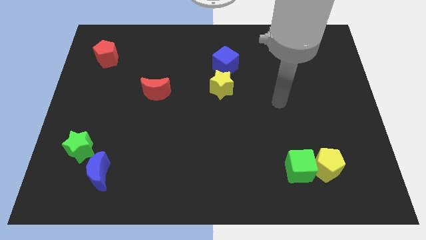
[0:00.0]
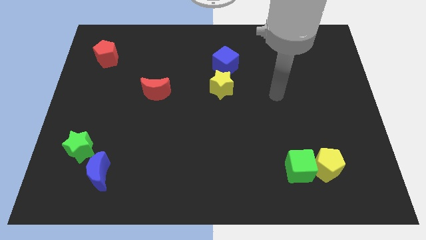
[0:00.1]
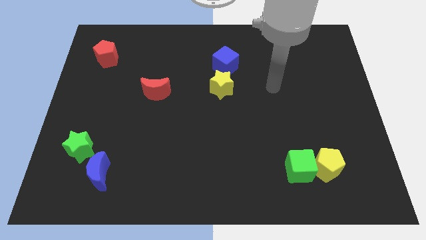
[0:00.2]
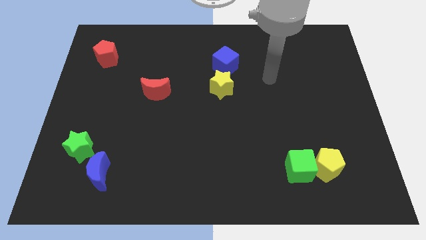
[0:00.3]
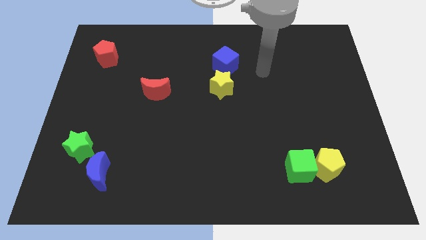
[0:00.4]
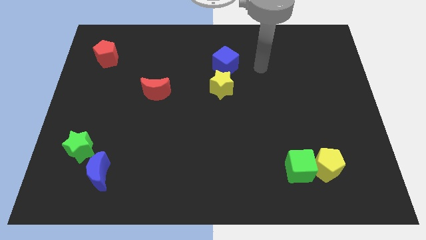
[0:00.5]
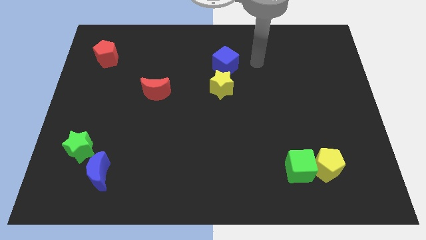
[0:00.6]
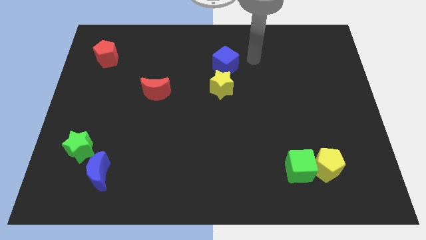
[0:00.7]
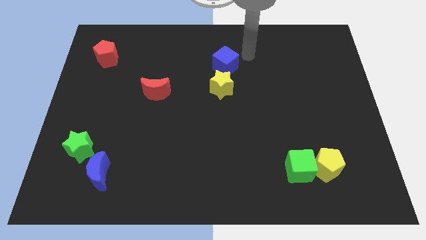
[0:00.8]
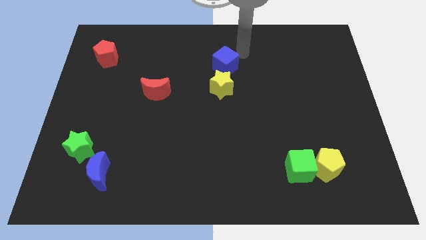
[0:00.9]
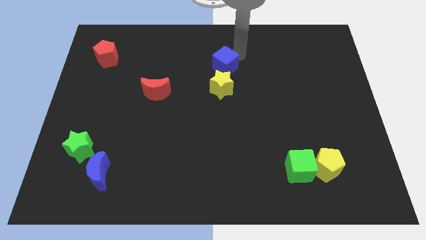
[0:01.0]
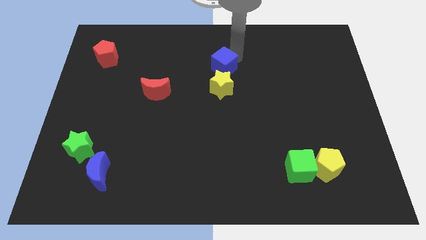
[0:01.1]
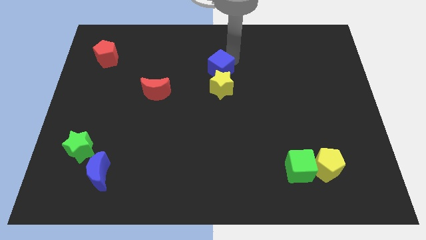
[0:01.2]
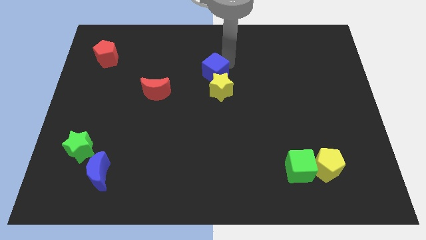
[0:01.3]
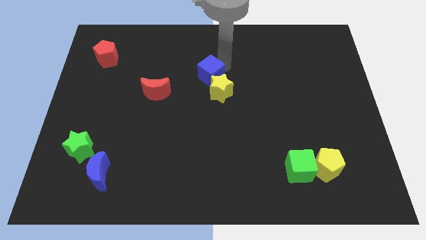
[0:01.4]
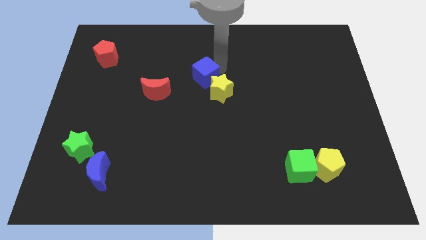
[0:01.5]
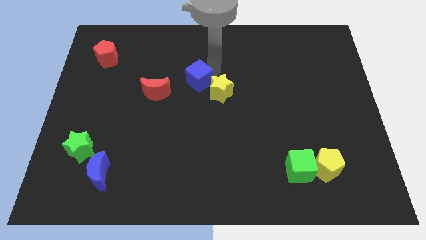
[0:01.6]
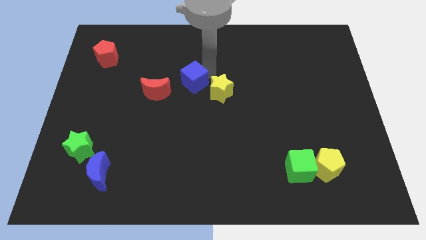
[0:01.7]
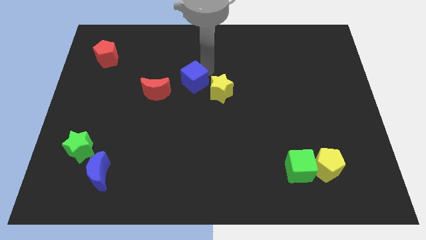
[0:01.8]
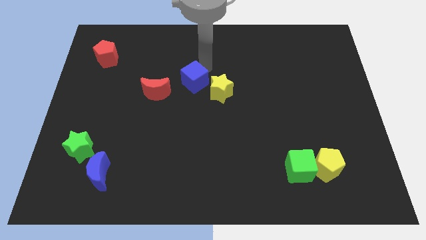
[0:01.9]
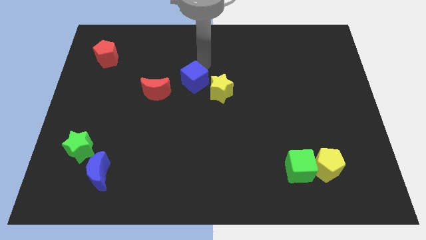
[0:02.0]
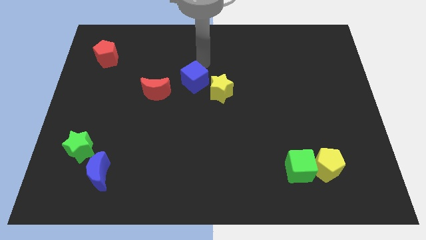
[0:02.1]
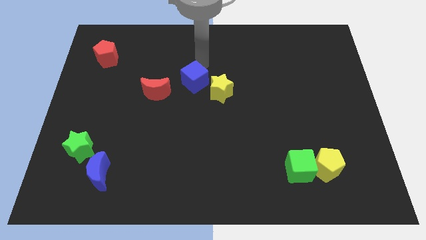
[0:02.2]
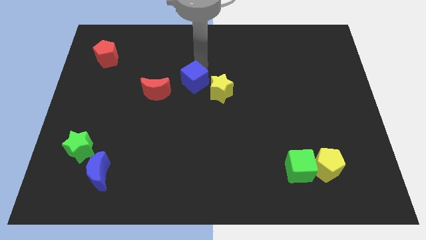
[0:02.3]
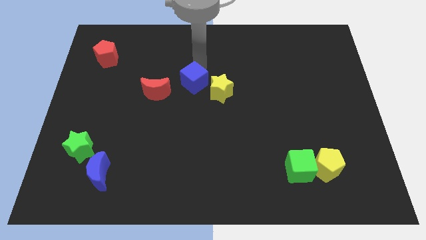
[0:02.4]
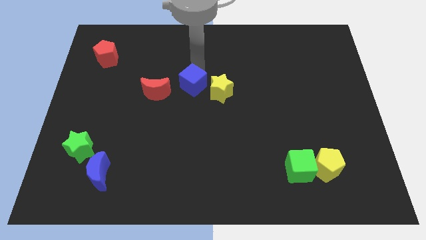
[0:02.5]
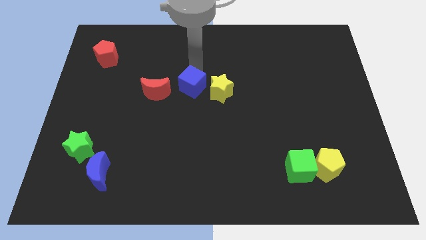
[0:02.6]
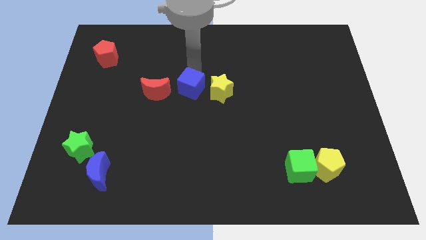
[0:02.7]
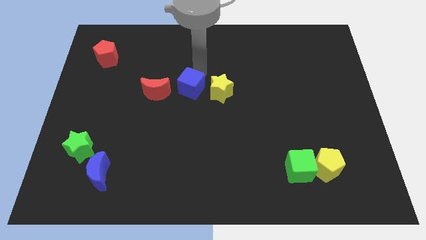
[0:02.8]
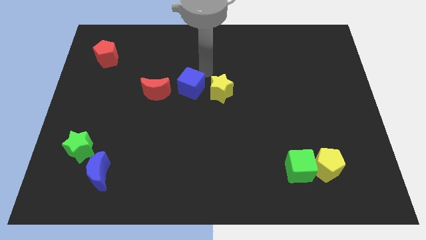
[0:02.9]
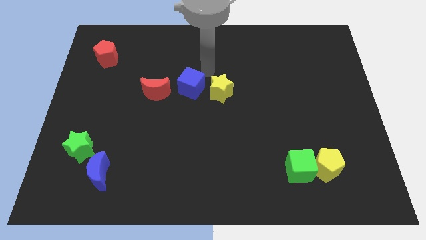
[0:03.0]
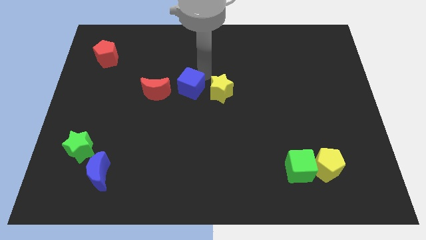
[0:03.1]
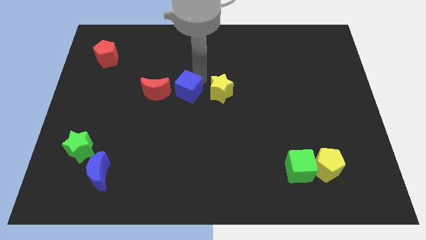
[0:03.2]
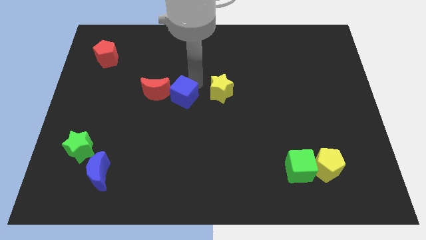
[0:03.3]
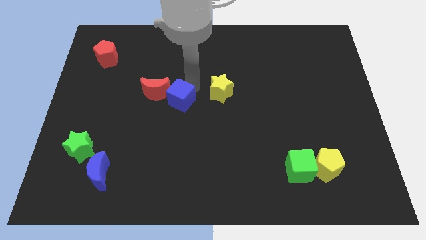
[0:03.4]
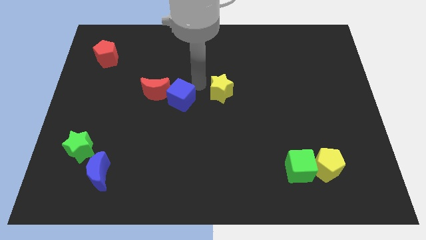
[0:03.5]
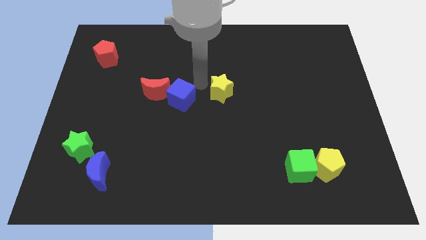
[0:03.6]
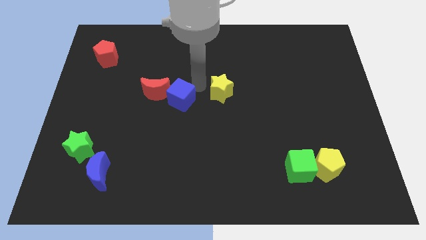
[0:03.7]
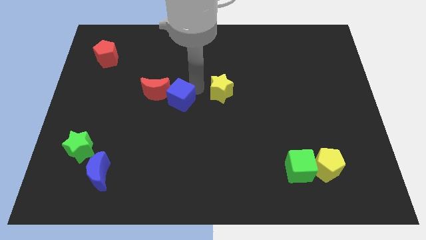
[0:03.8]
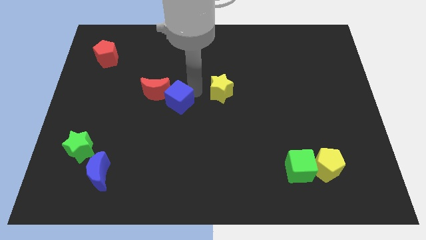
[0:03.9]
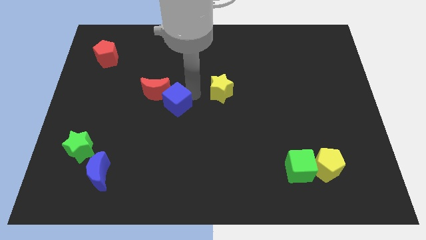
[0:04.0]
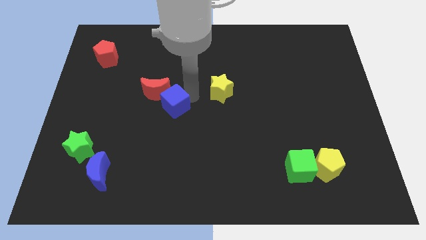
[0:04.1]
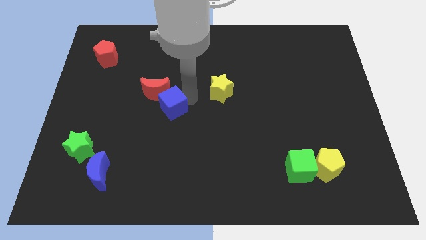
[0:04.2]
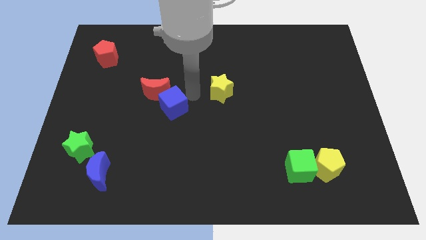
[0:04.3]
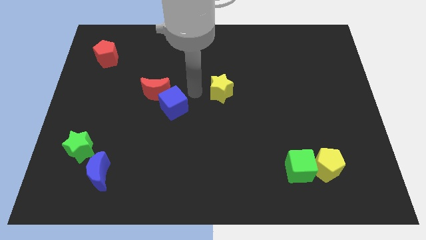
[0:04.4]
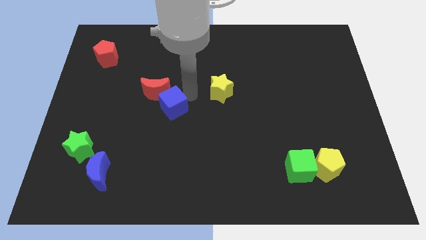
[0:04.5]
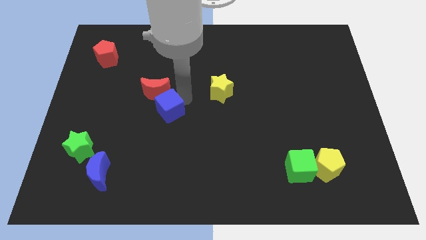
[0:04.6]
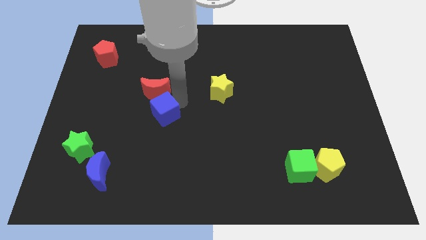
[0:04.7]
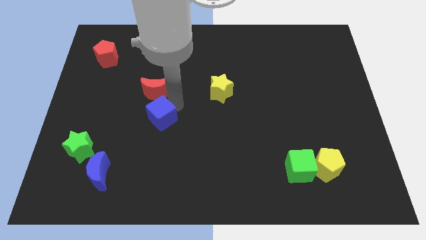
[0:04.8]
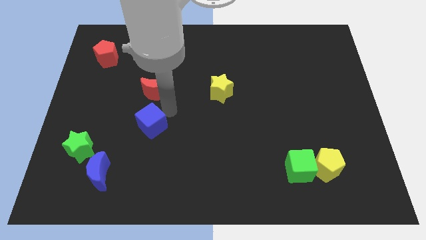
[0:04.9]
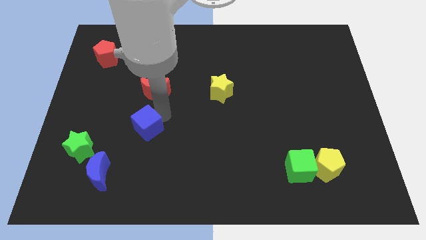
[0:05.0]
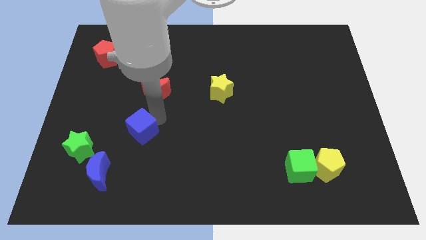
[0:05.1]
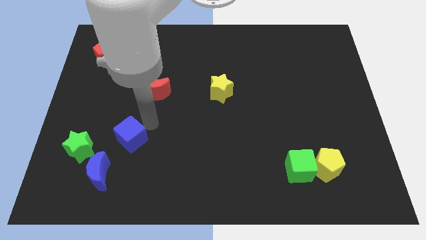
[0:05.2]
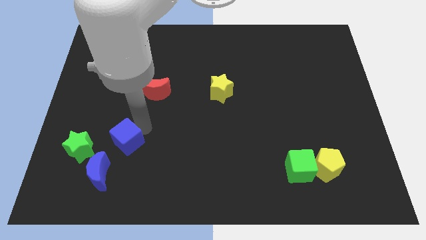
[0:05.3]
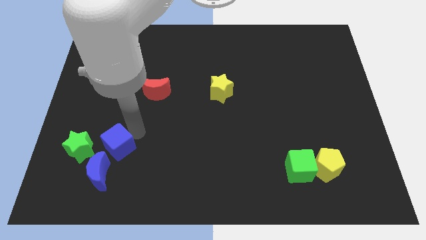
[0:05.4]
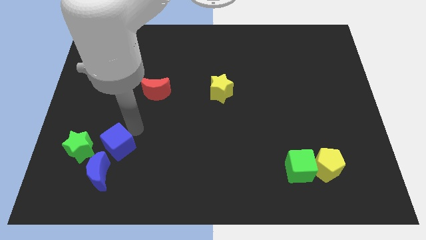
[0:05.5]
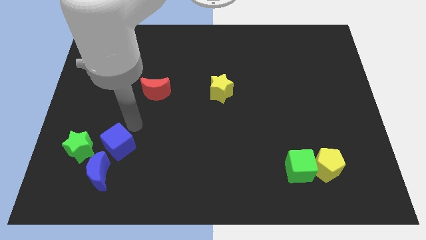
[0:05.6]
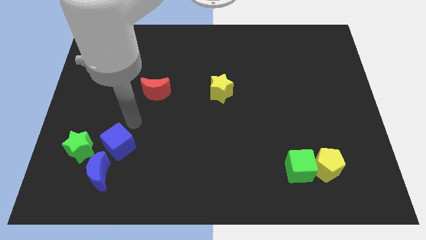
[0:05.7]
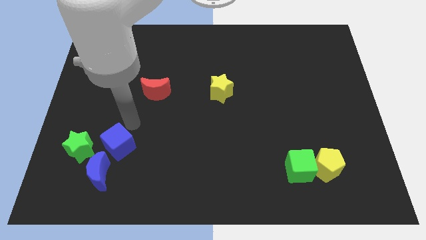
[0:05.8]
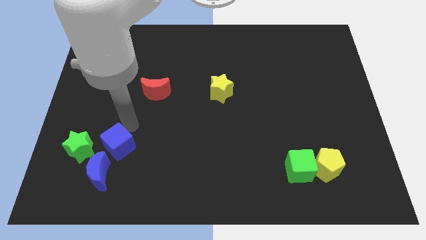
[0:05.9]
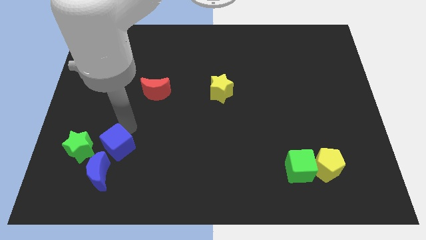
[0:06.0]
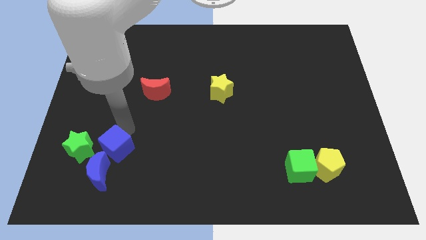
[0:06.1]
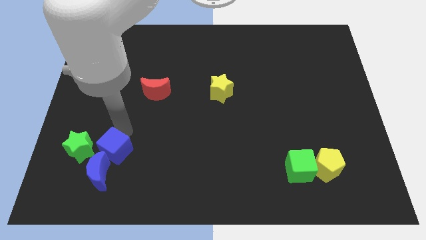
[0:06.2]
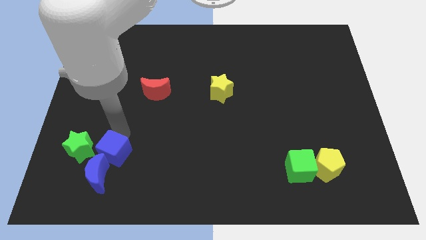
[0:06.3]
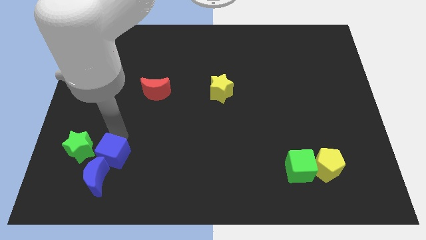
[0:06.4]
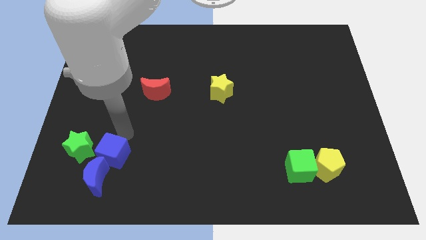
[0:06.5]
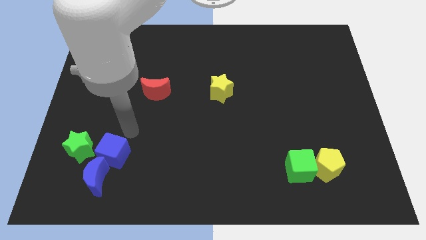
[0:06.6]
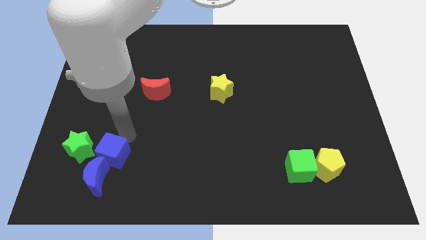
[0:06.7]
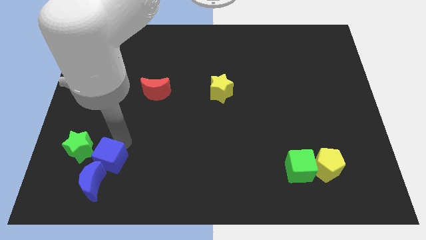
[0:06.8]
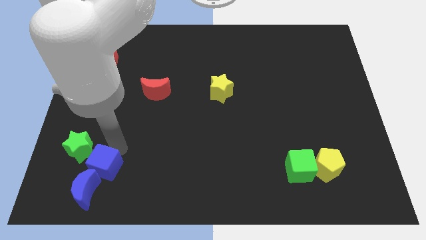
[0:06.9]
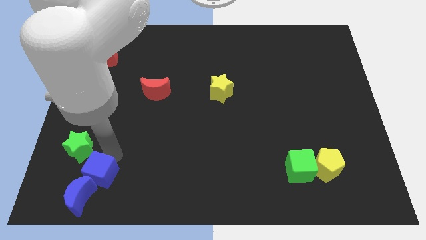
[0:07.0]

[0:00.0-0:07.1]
slide the blue cube to the blue moon
